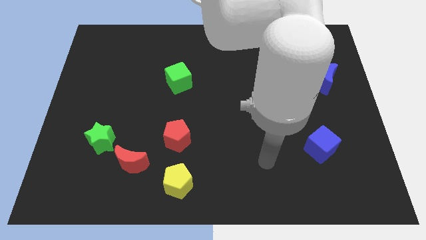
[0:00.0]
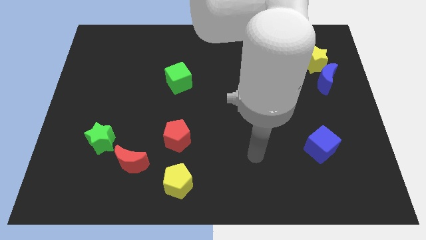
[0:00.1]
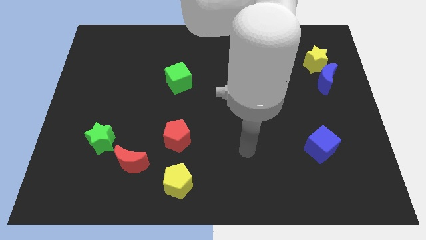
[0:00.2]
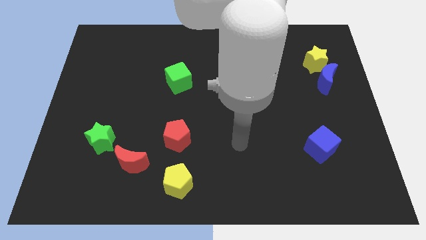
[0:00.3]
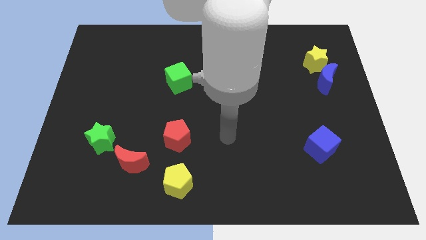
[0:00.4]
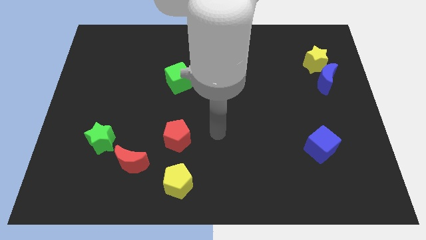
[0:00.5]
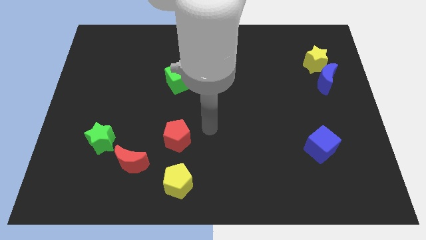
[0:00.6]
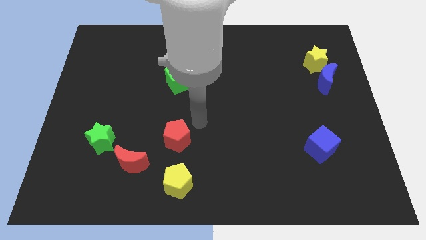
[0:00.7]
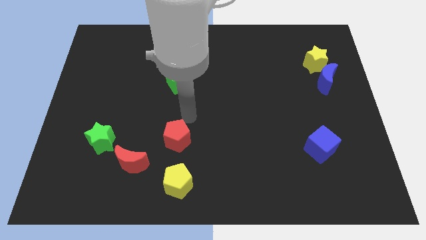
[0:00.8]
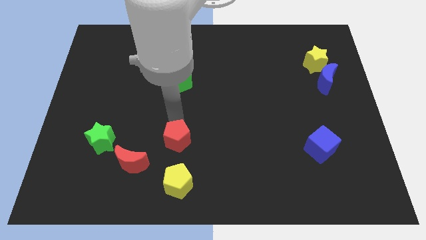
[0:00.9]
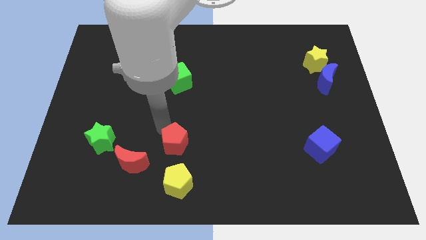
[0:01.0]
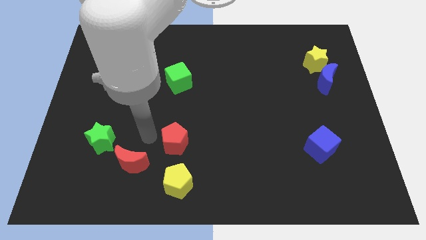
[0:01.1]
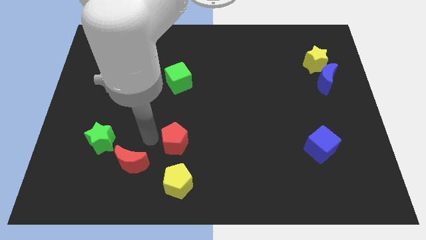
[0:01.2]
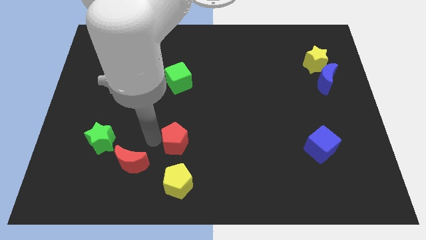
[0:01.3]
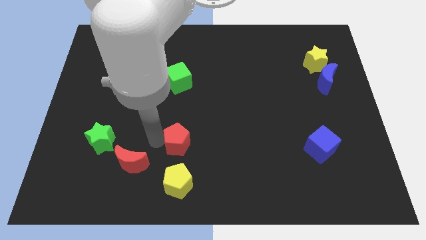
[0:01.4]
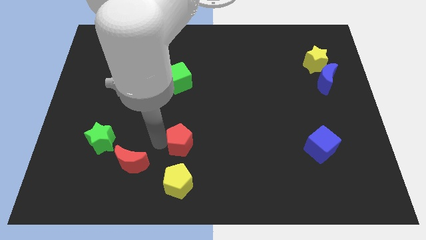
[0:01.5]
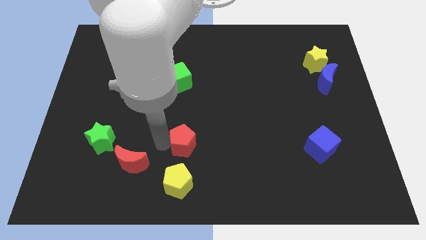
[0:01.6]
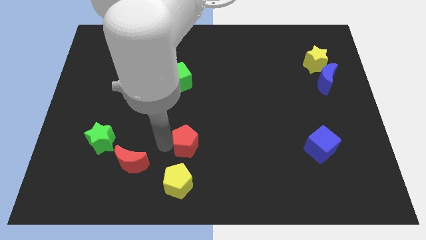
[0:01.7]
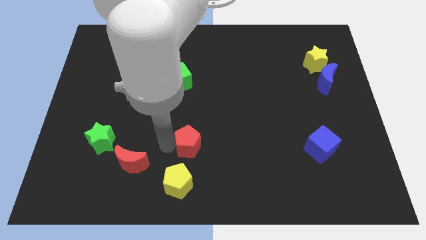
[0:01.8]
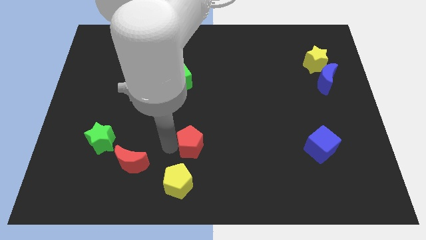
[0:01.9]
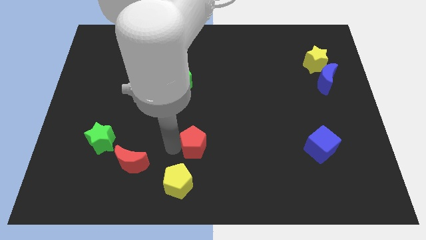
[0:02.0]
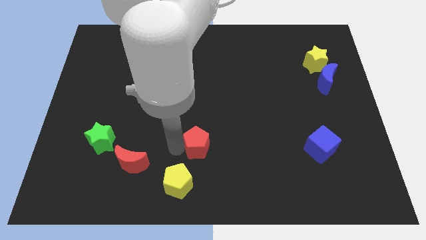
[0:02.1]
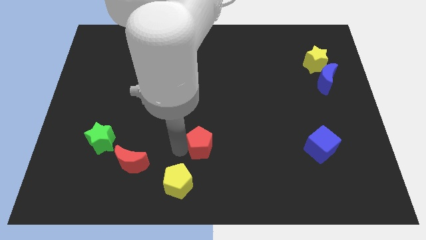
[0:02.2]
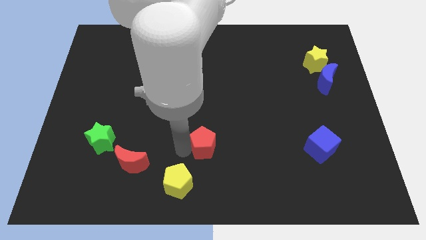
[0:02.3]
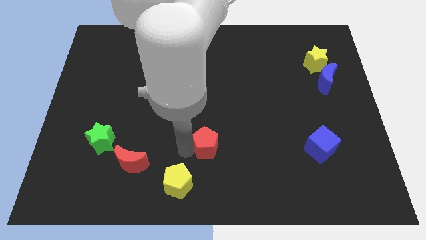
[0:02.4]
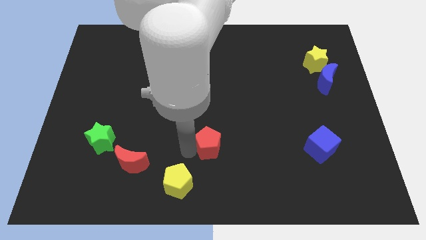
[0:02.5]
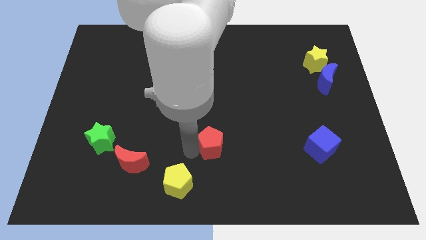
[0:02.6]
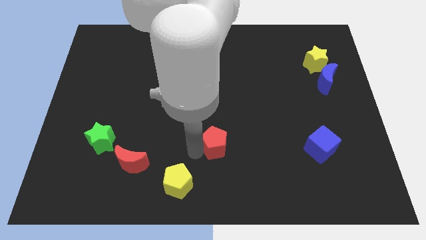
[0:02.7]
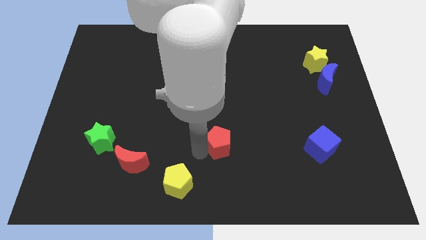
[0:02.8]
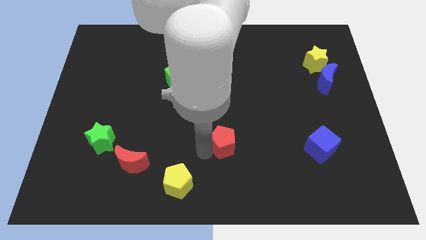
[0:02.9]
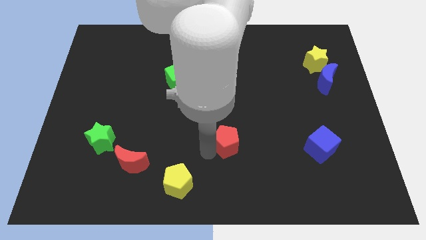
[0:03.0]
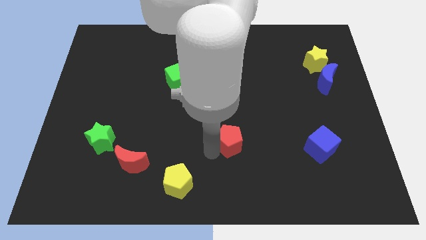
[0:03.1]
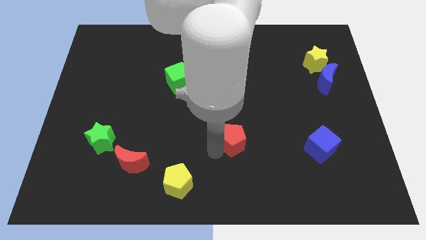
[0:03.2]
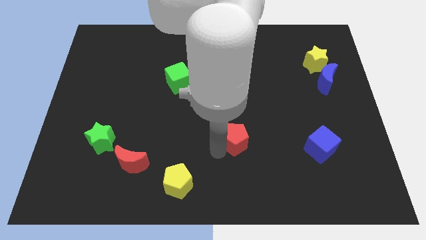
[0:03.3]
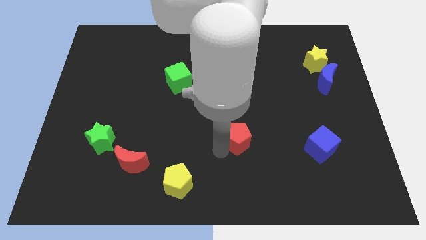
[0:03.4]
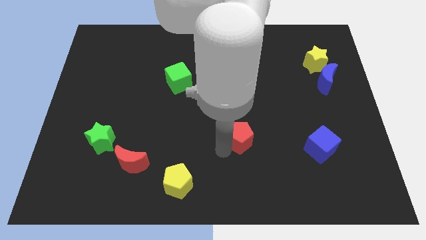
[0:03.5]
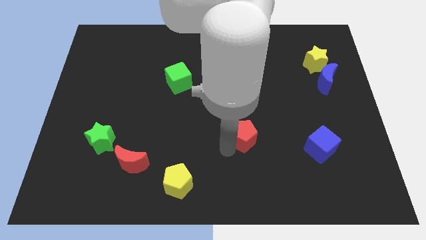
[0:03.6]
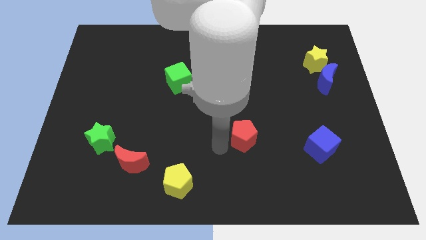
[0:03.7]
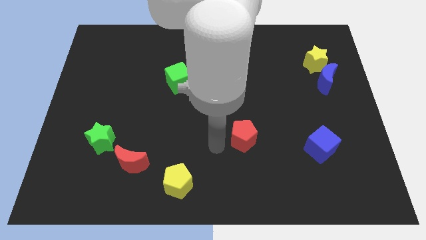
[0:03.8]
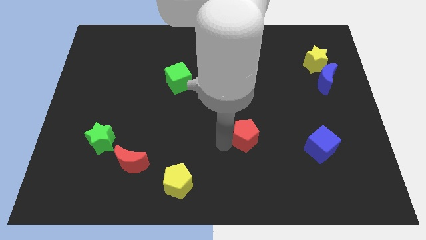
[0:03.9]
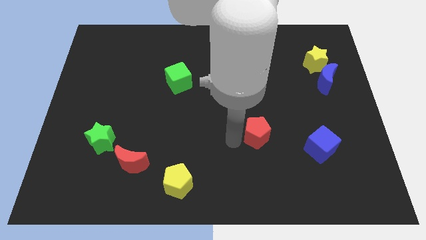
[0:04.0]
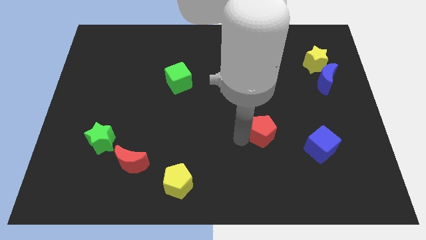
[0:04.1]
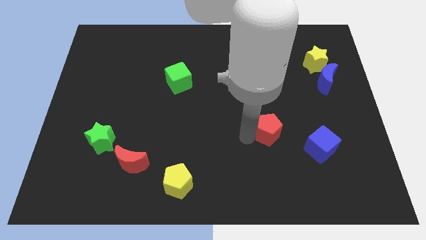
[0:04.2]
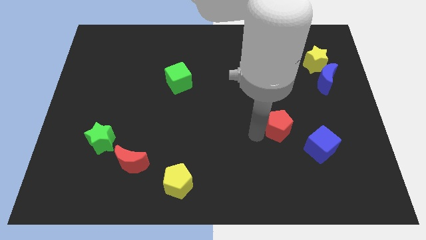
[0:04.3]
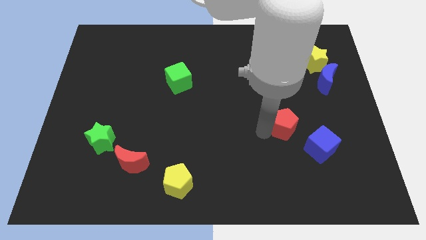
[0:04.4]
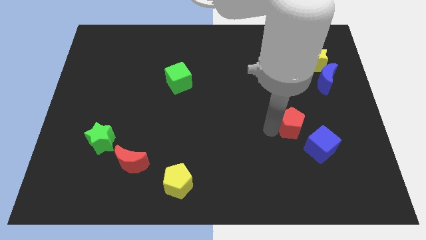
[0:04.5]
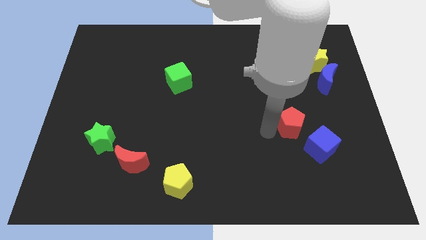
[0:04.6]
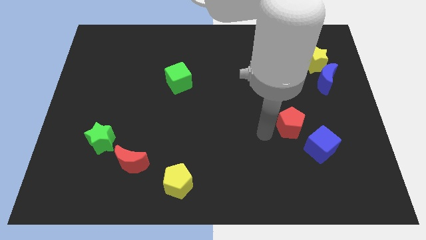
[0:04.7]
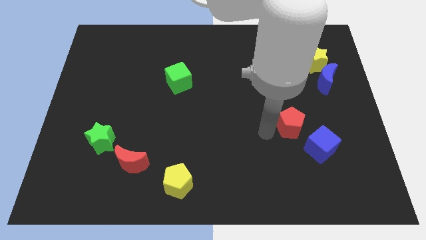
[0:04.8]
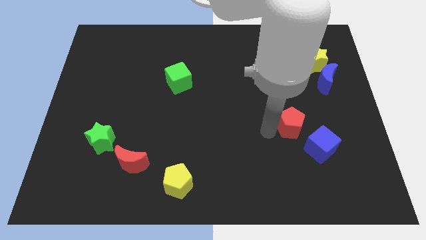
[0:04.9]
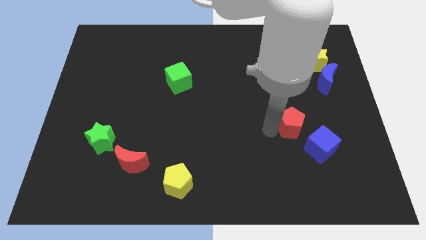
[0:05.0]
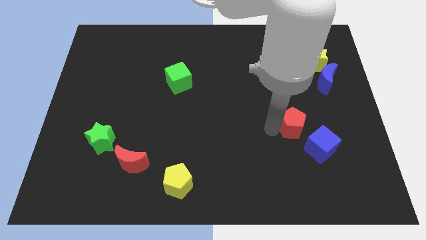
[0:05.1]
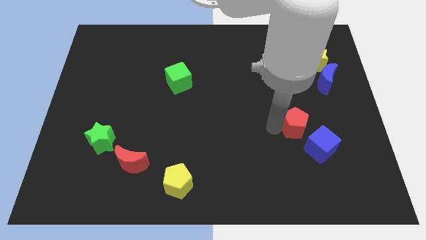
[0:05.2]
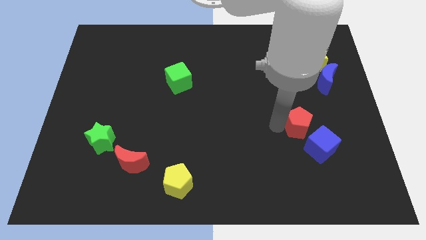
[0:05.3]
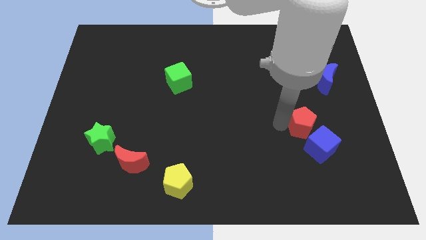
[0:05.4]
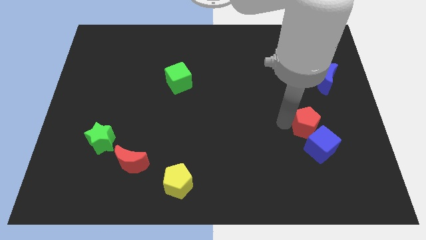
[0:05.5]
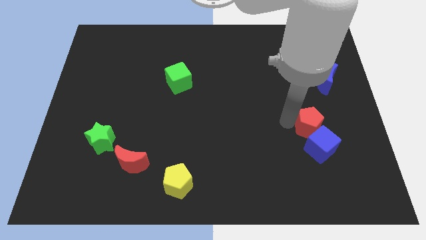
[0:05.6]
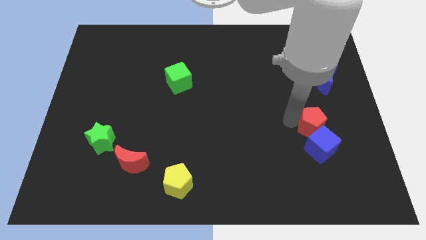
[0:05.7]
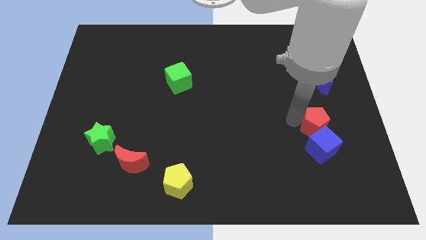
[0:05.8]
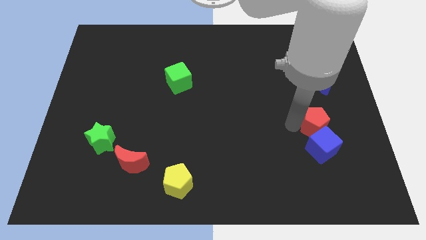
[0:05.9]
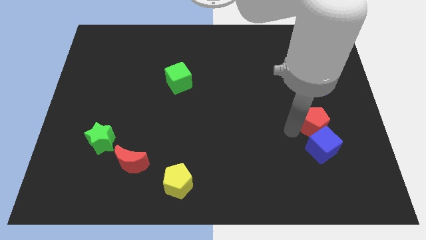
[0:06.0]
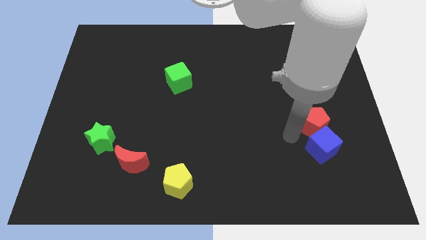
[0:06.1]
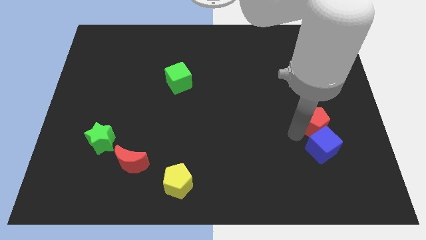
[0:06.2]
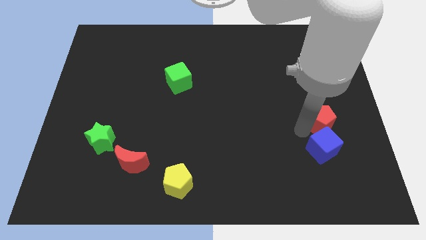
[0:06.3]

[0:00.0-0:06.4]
put the red pentagon to the bottom of the blue moon

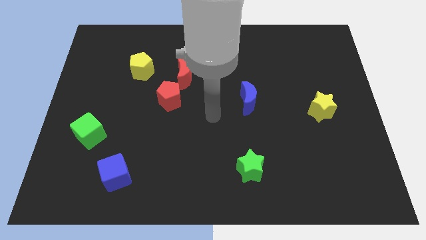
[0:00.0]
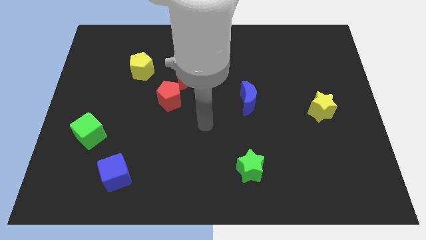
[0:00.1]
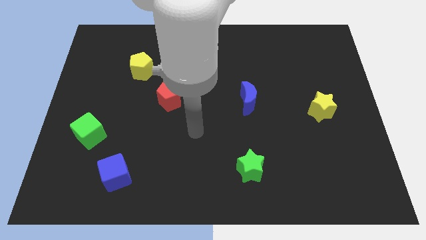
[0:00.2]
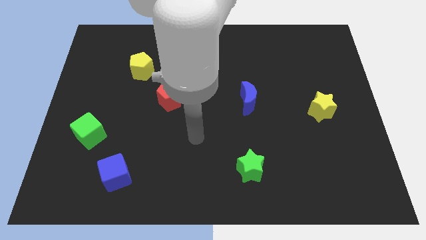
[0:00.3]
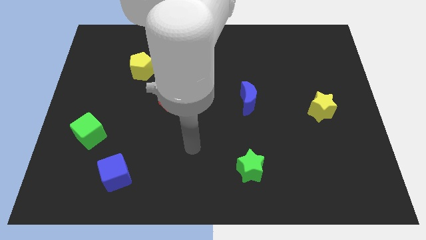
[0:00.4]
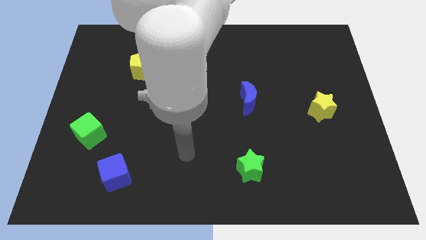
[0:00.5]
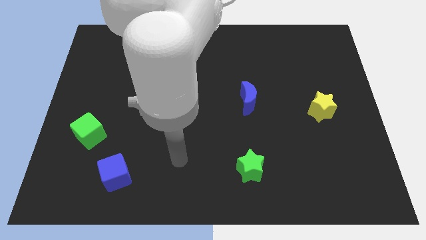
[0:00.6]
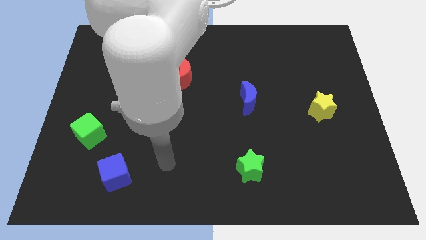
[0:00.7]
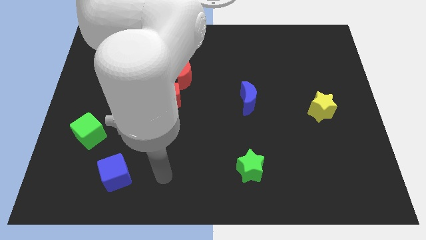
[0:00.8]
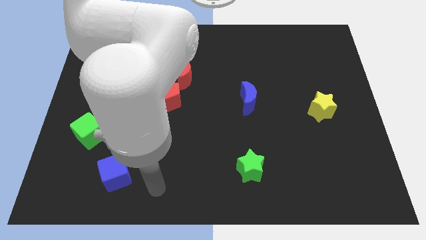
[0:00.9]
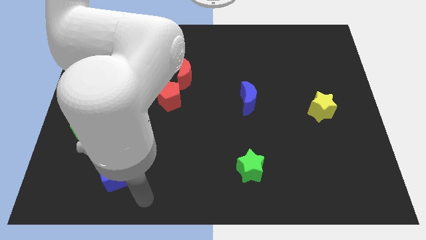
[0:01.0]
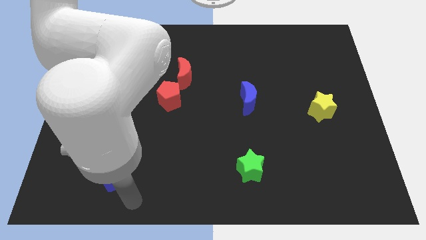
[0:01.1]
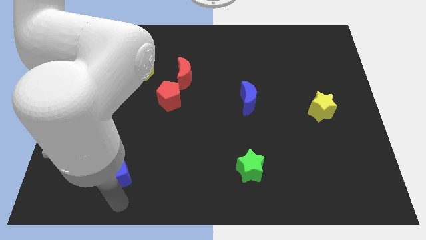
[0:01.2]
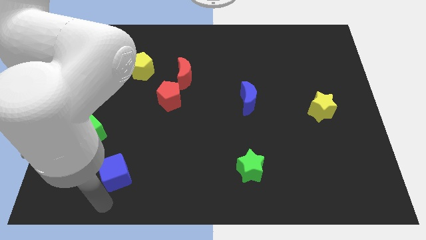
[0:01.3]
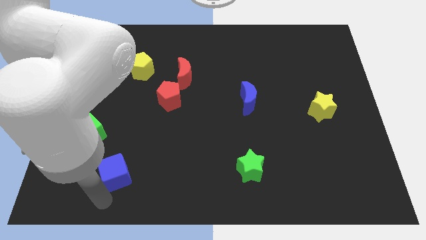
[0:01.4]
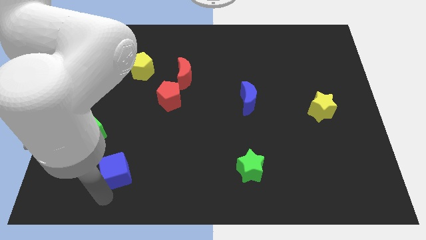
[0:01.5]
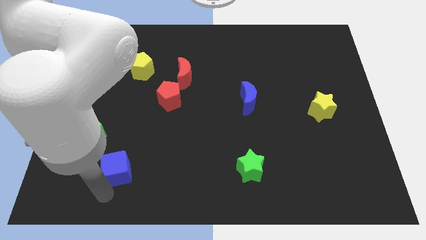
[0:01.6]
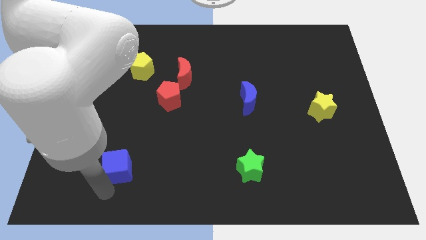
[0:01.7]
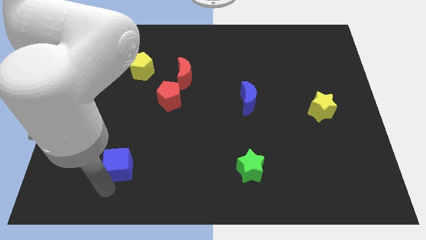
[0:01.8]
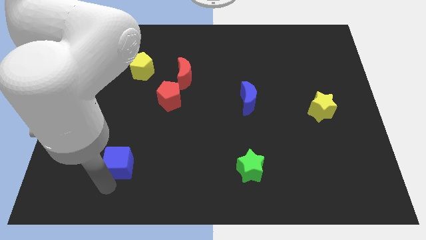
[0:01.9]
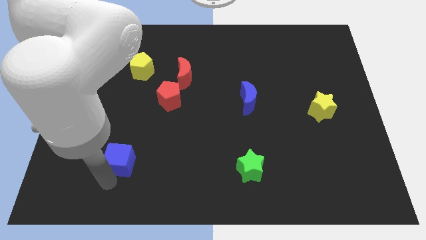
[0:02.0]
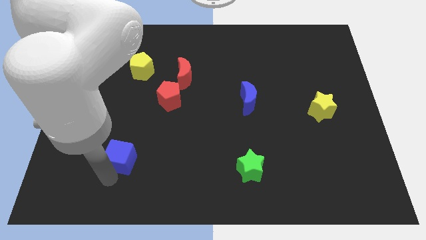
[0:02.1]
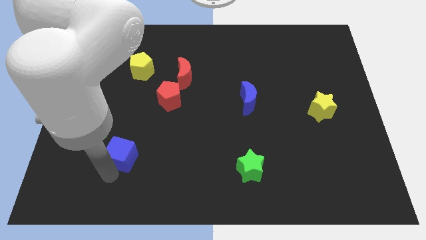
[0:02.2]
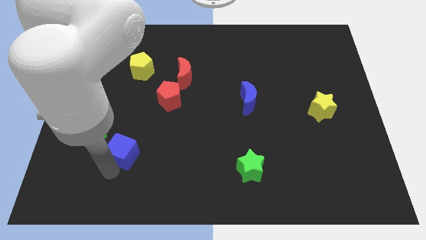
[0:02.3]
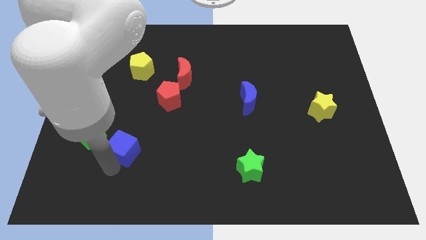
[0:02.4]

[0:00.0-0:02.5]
put the blue cube to the right of the green cube
